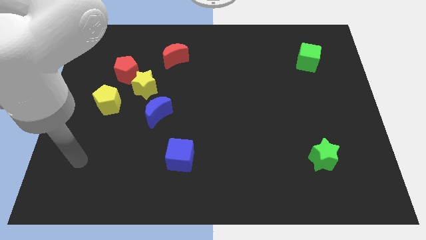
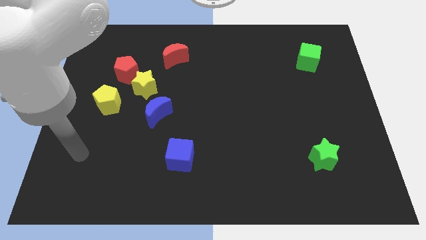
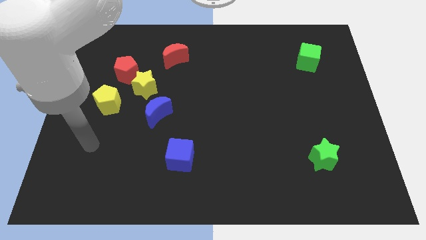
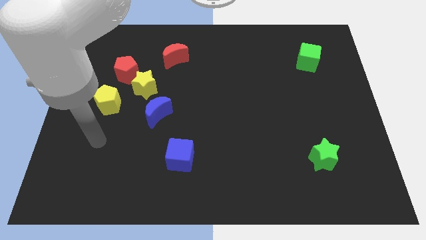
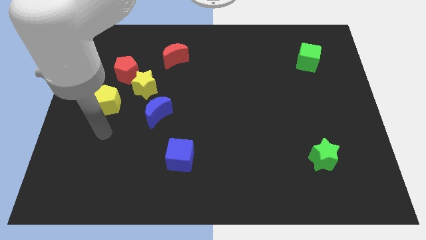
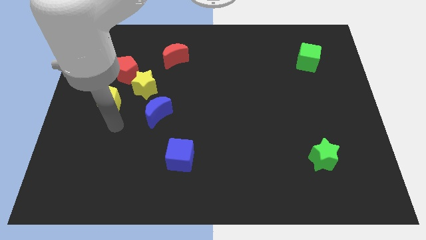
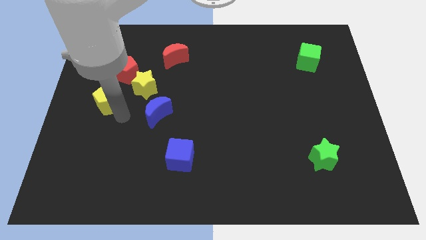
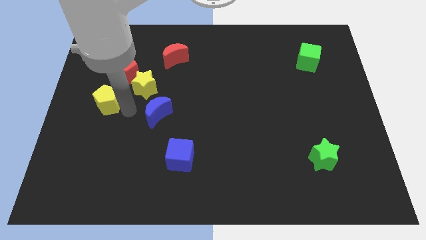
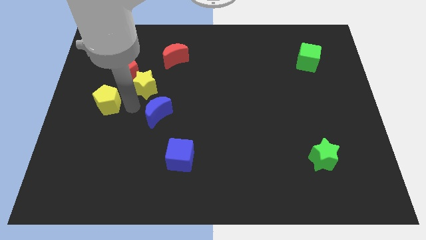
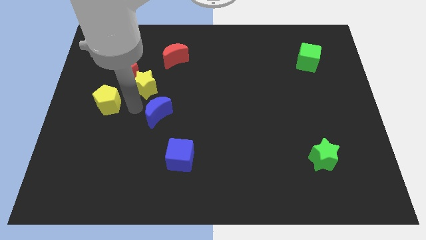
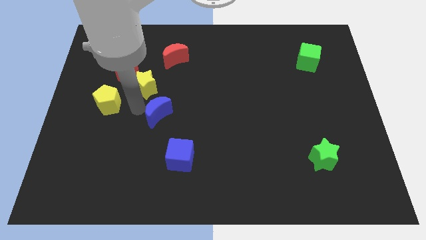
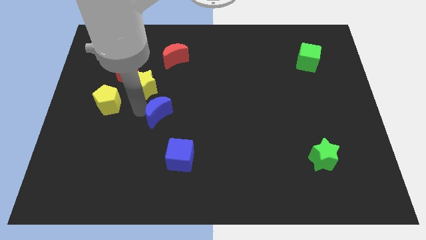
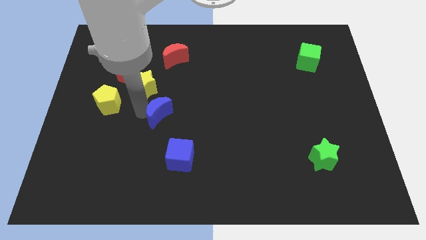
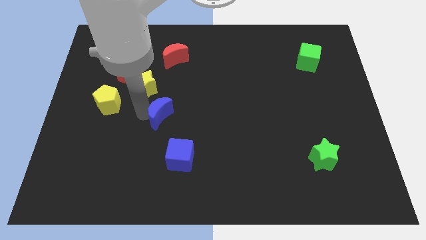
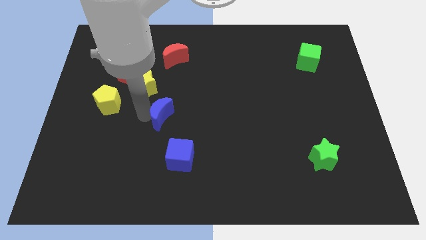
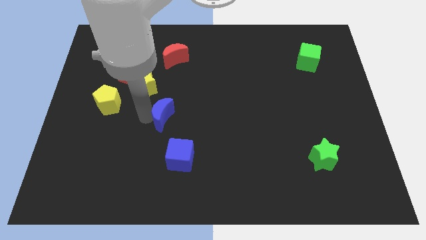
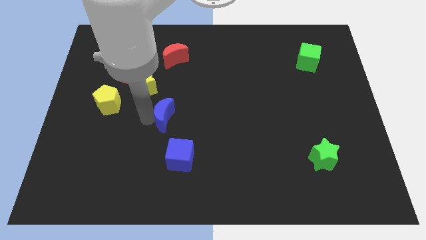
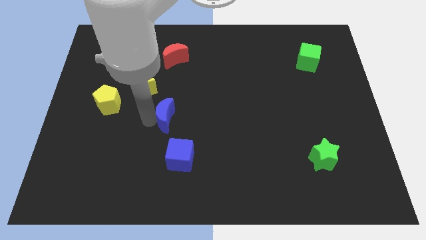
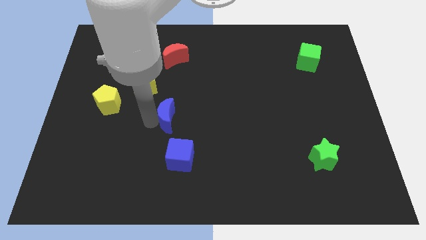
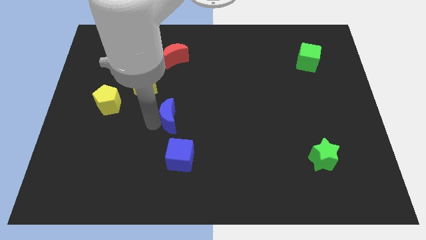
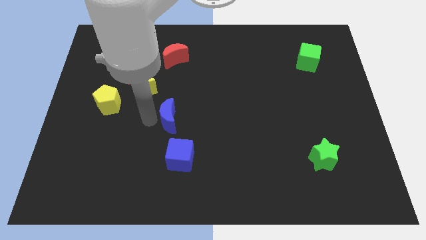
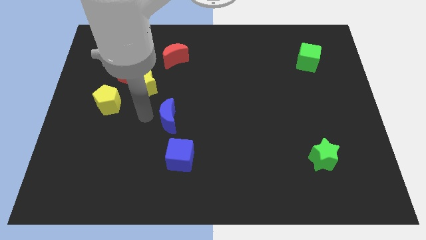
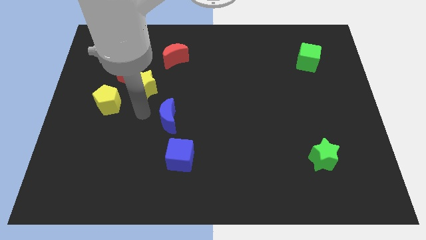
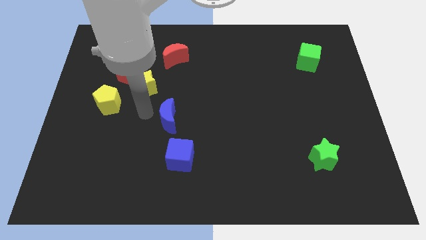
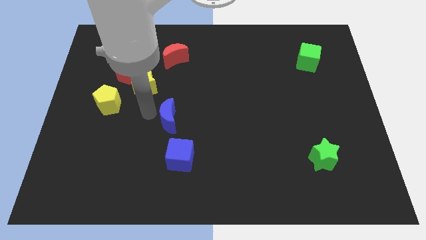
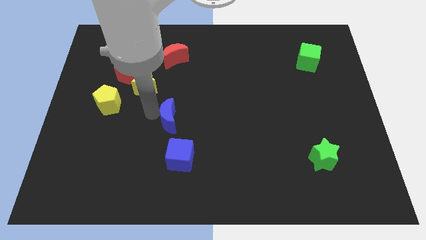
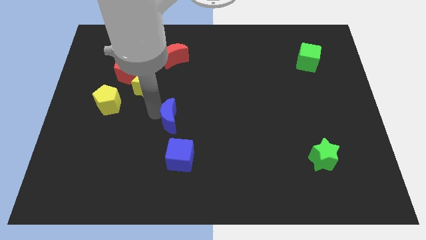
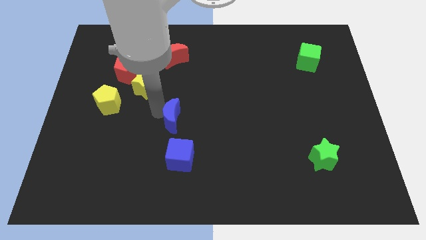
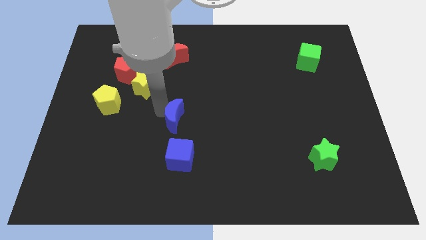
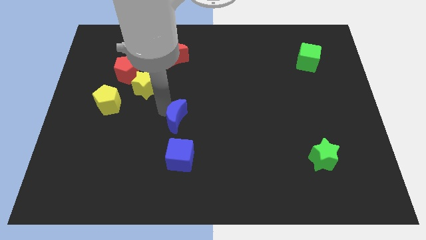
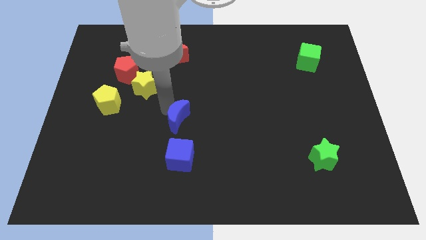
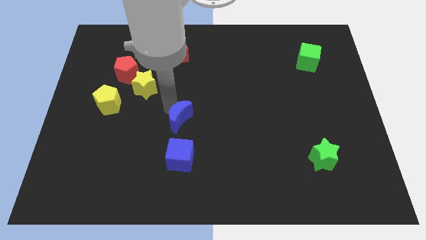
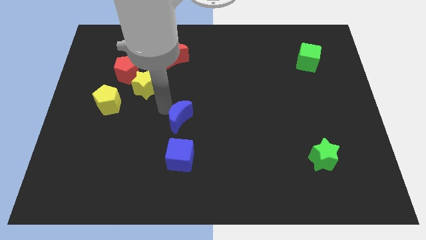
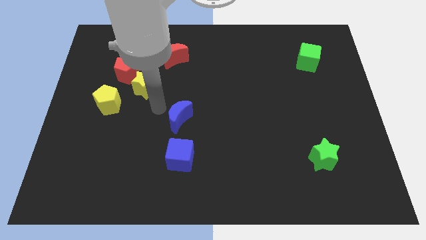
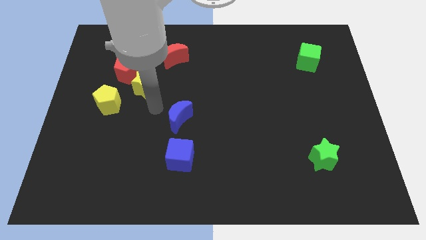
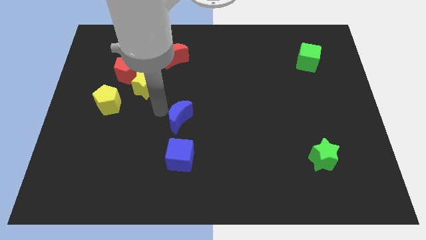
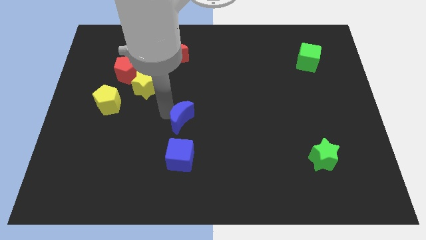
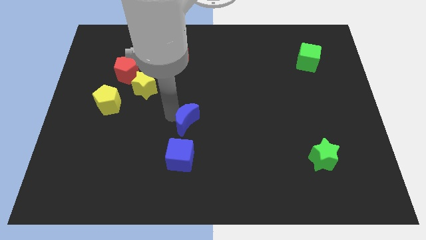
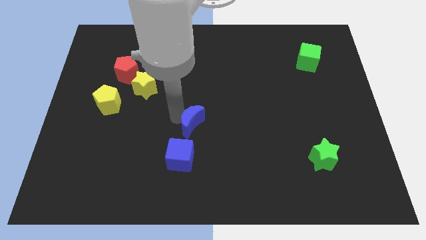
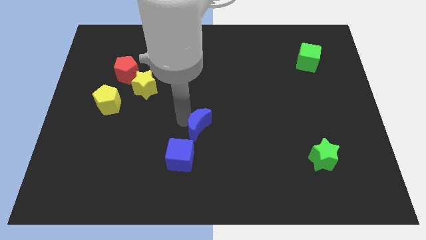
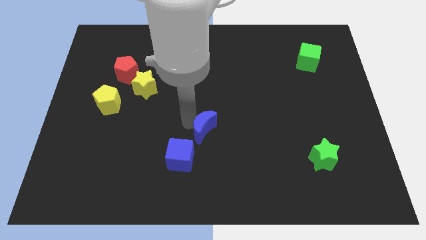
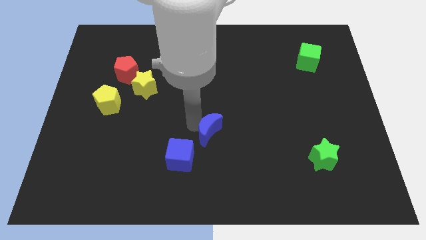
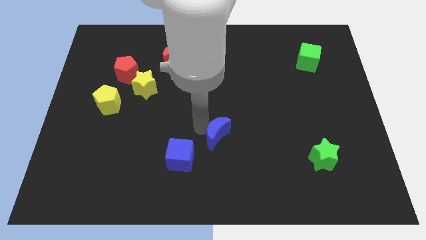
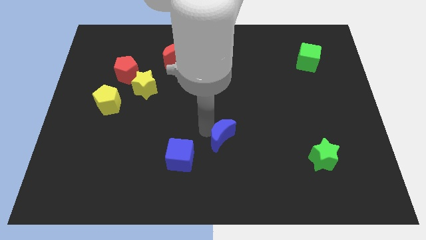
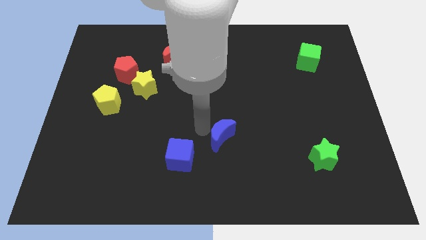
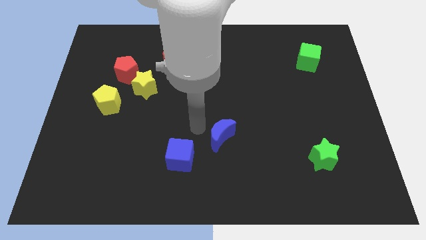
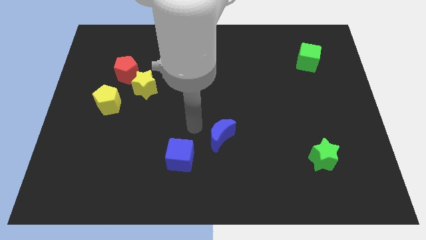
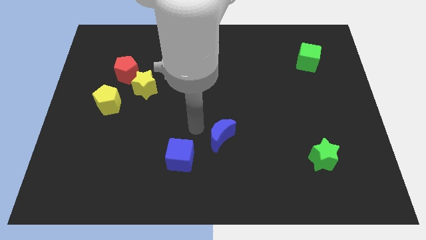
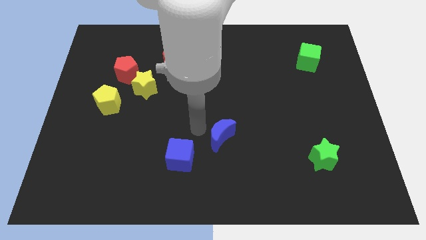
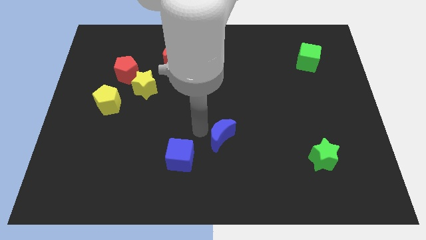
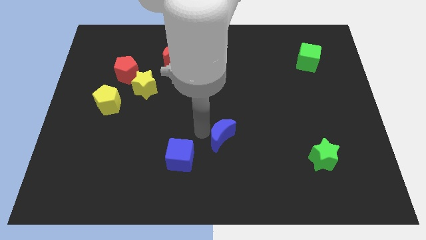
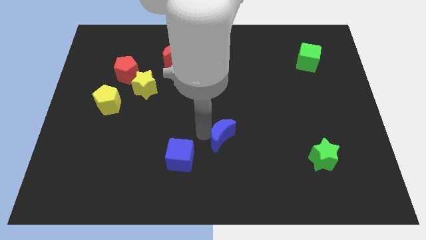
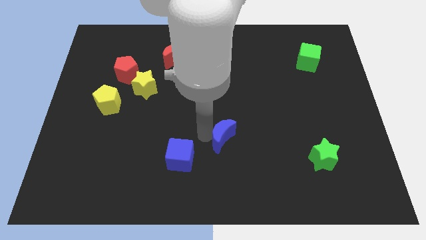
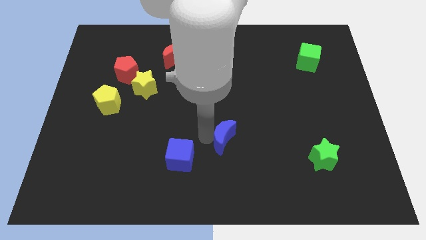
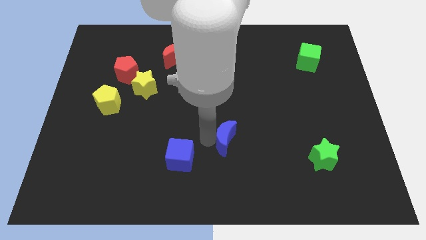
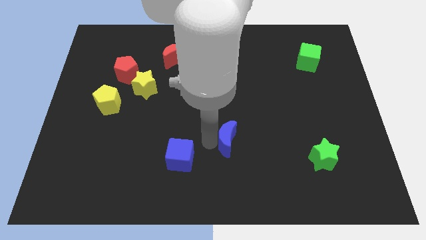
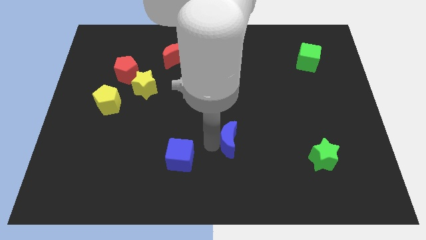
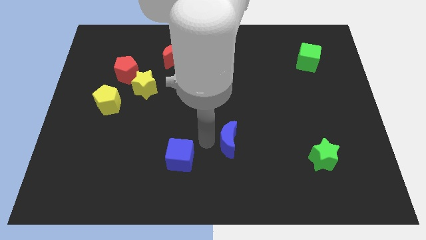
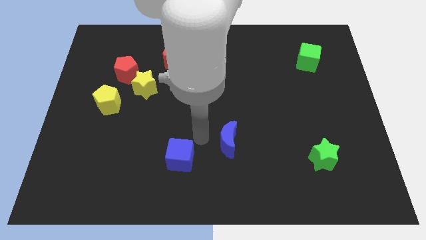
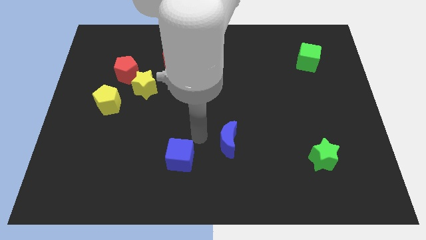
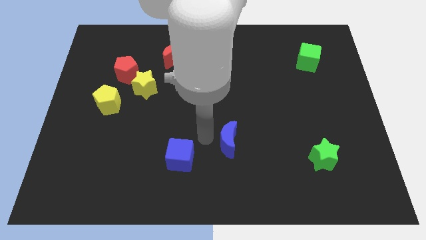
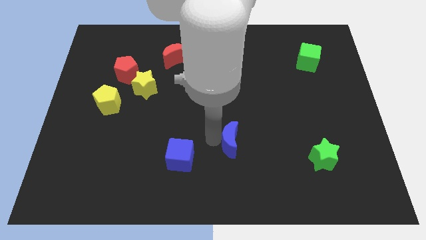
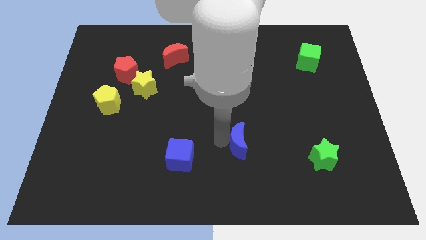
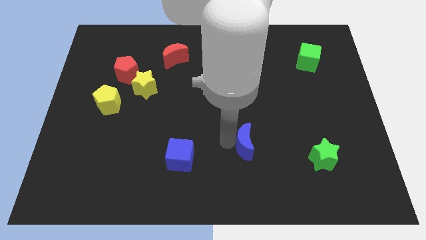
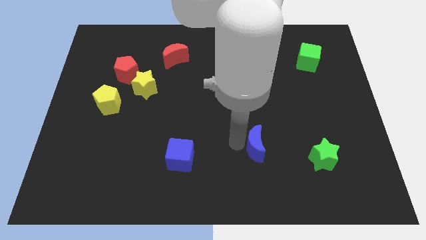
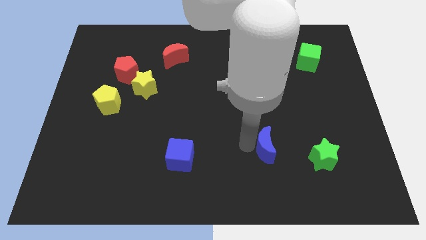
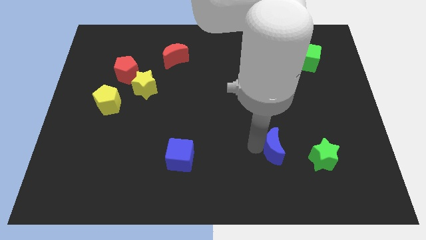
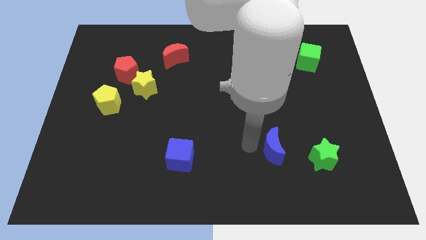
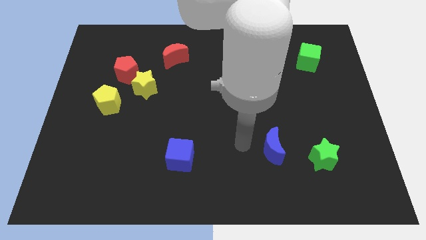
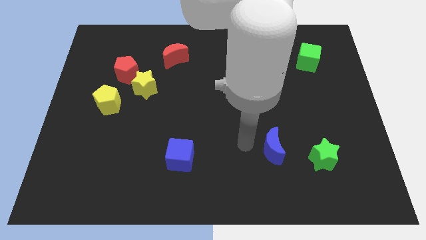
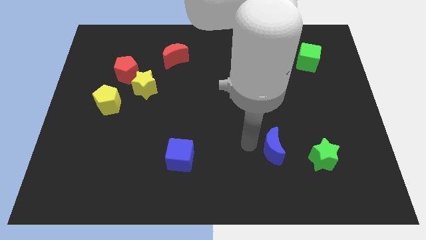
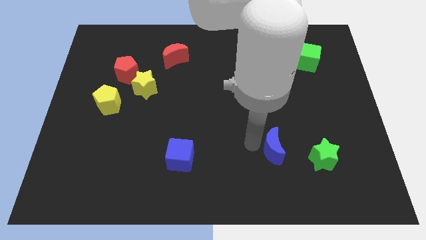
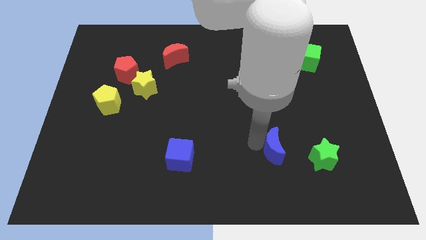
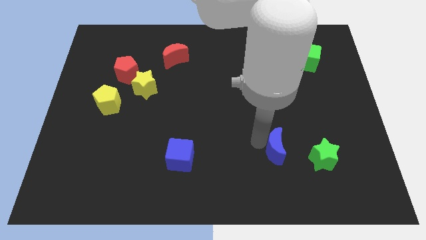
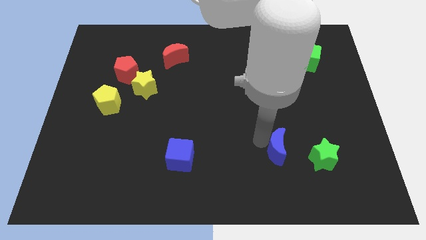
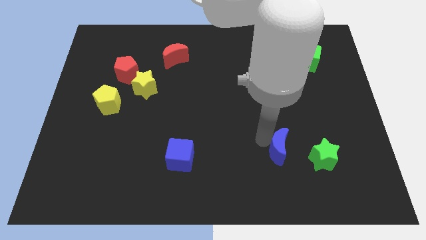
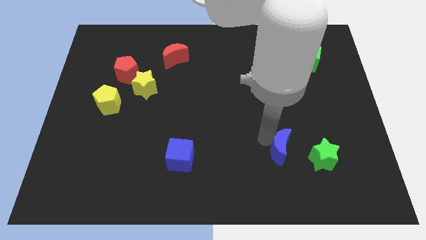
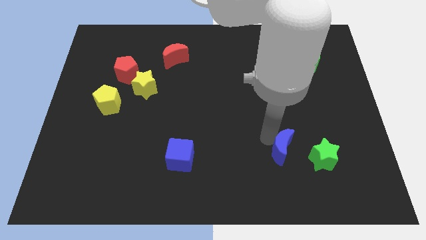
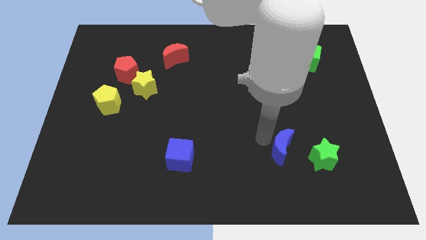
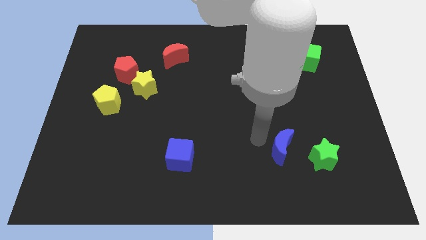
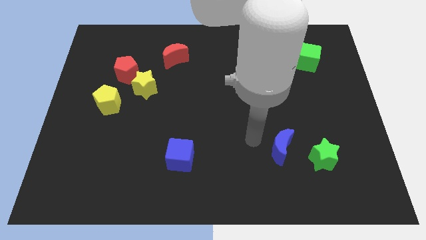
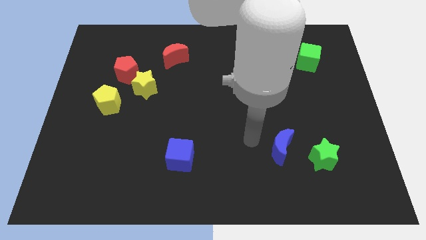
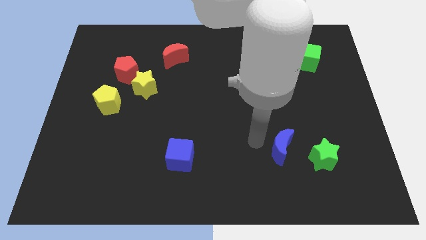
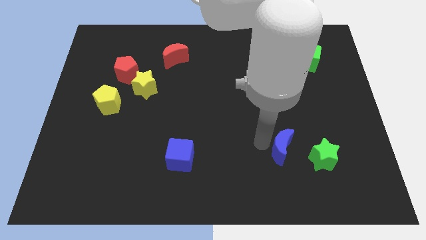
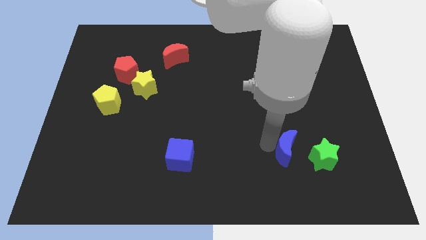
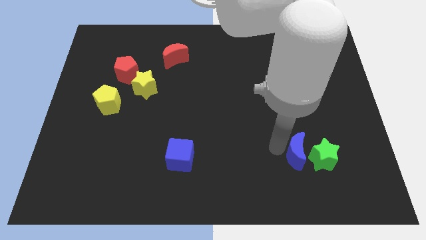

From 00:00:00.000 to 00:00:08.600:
slide the blue moon next to the green star
